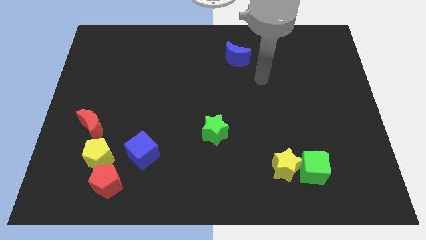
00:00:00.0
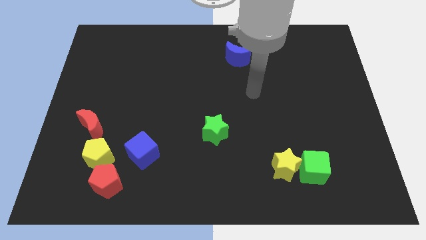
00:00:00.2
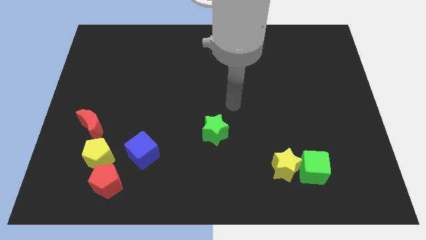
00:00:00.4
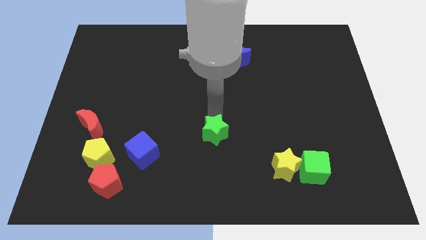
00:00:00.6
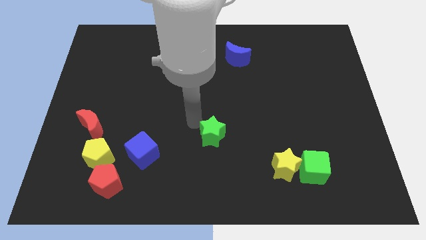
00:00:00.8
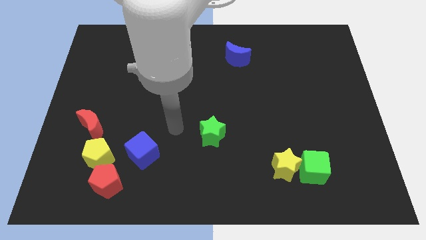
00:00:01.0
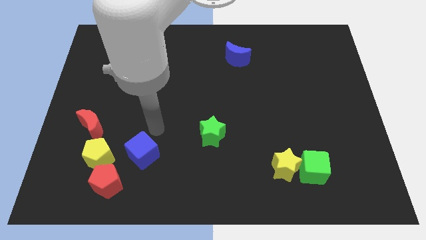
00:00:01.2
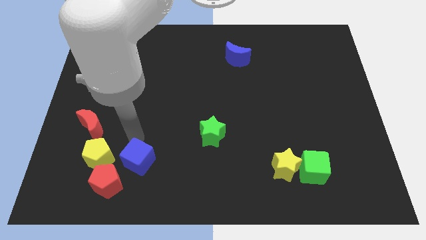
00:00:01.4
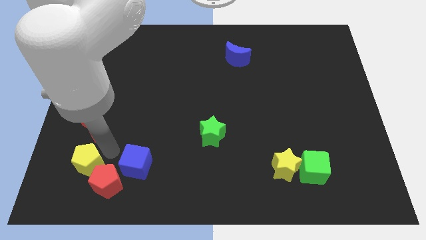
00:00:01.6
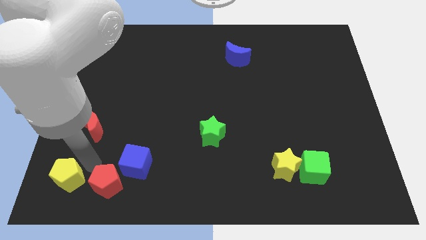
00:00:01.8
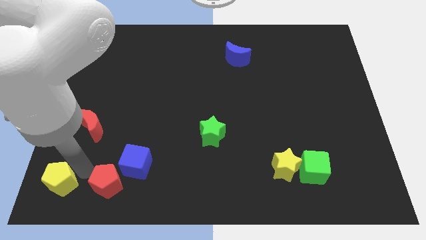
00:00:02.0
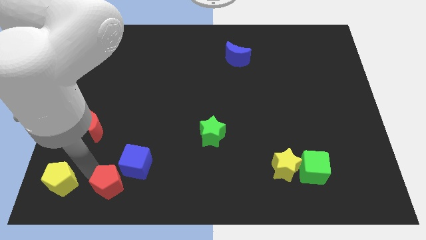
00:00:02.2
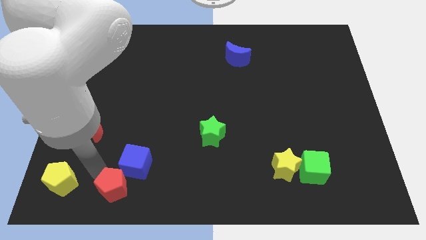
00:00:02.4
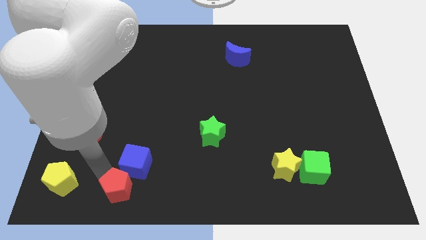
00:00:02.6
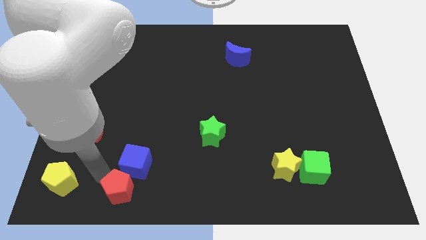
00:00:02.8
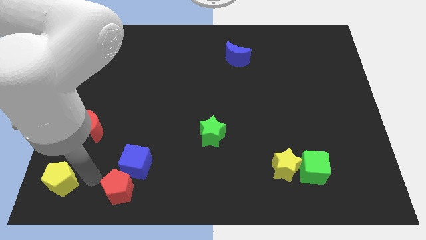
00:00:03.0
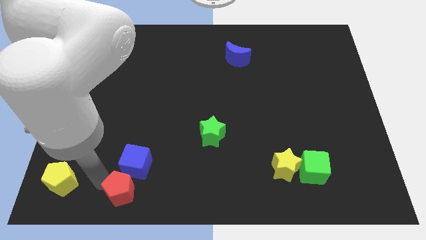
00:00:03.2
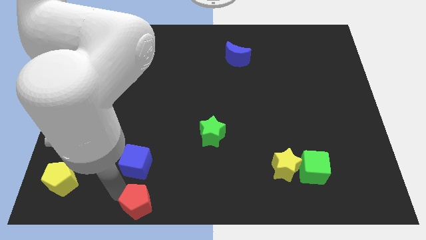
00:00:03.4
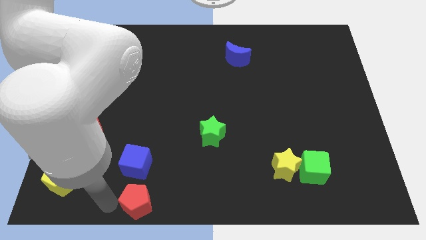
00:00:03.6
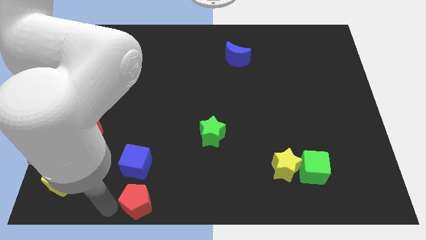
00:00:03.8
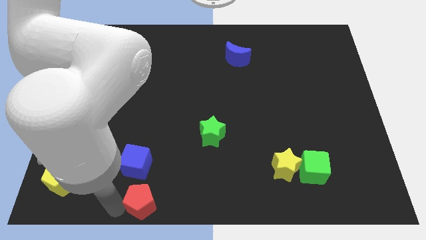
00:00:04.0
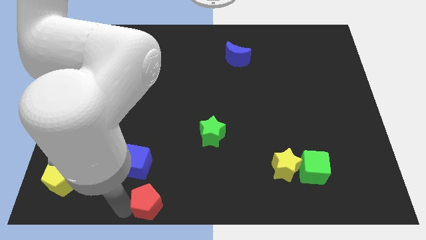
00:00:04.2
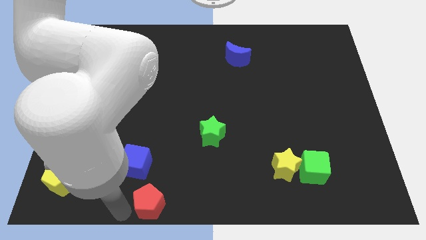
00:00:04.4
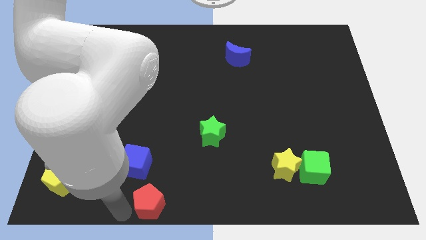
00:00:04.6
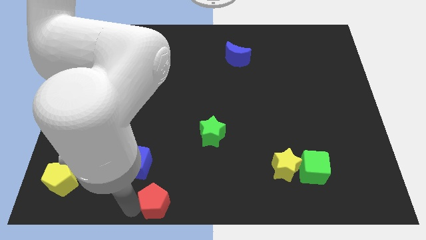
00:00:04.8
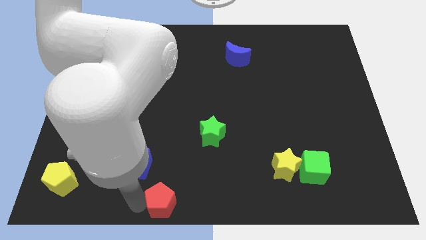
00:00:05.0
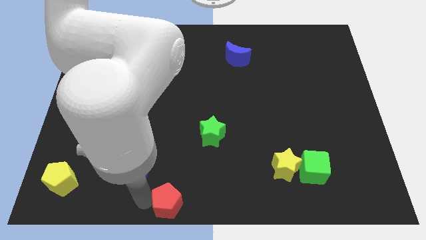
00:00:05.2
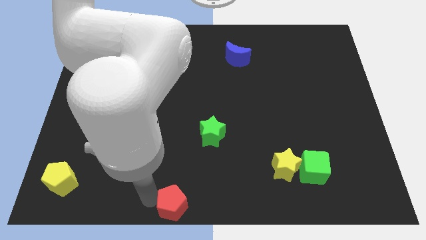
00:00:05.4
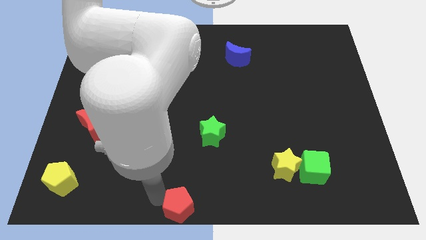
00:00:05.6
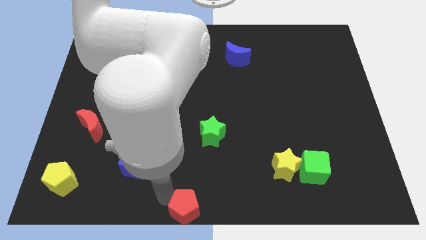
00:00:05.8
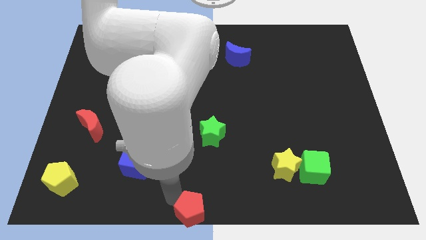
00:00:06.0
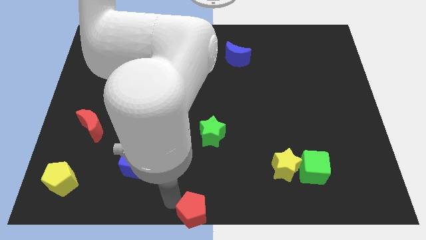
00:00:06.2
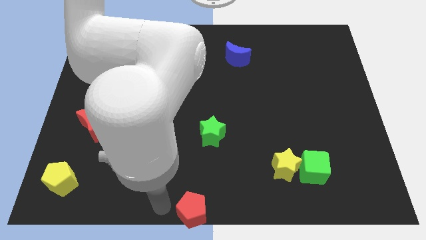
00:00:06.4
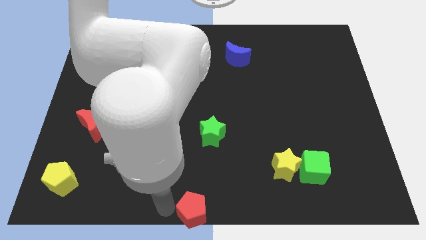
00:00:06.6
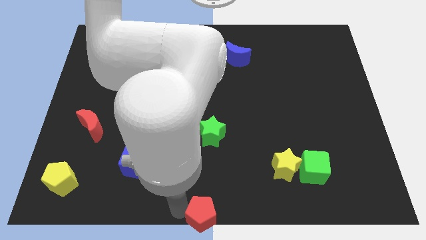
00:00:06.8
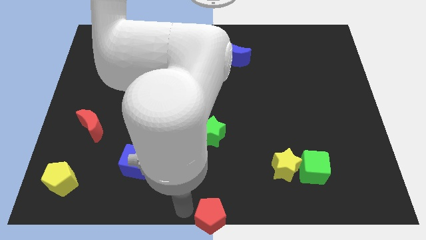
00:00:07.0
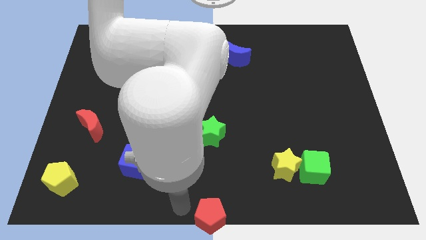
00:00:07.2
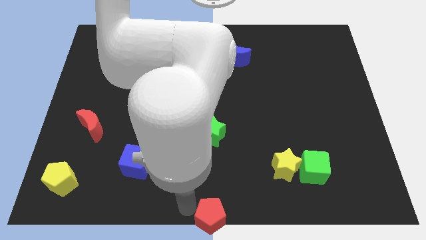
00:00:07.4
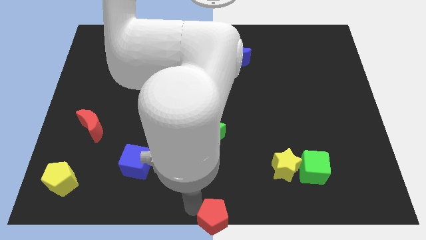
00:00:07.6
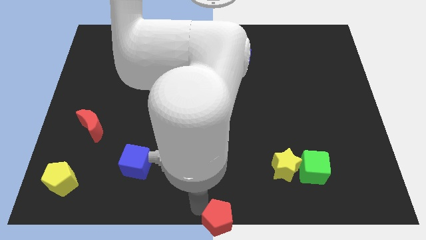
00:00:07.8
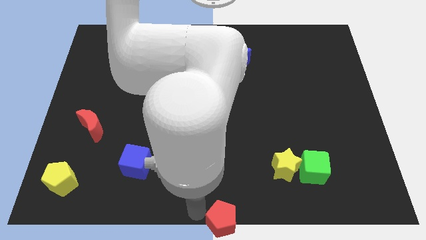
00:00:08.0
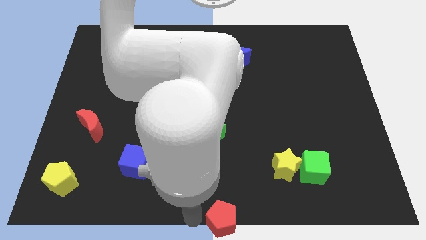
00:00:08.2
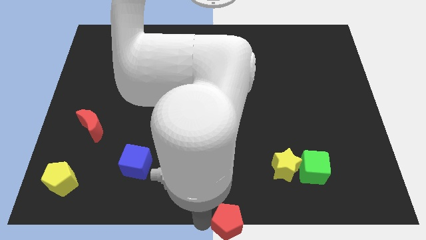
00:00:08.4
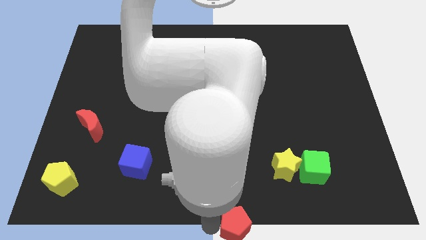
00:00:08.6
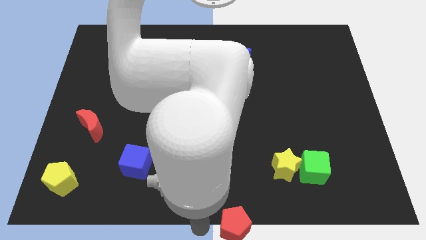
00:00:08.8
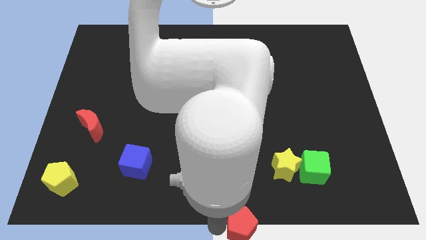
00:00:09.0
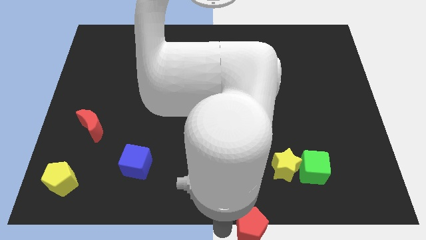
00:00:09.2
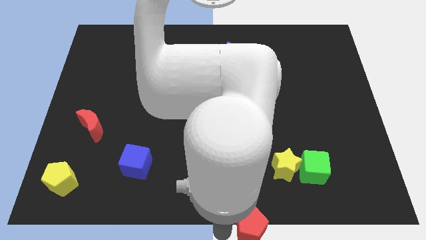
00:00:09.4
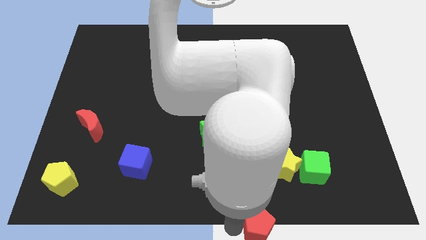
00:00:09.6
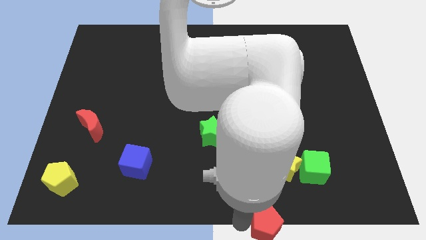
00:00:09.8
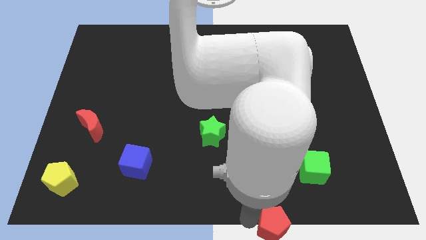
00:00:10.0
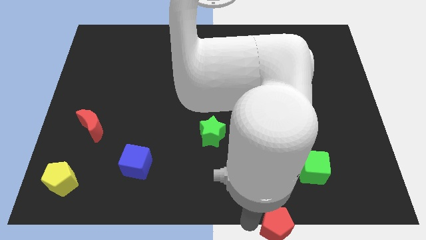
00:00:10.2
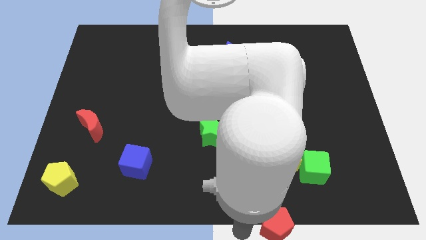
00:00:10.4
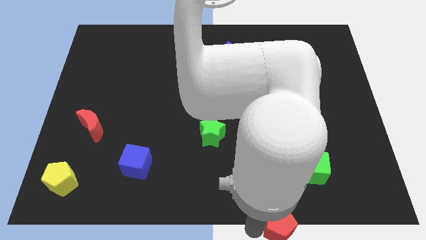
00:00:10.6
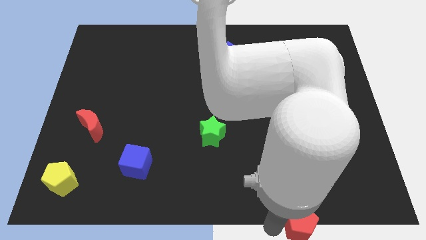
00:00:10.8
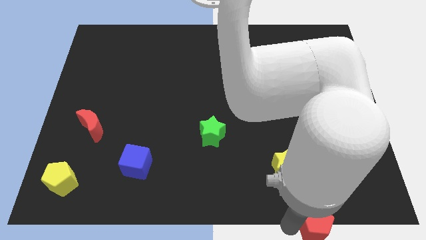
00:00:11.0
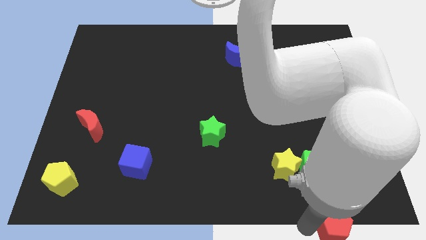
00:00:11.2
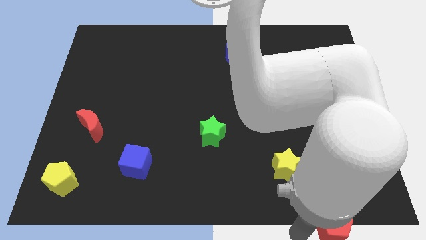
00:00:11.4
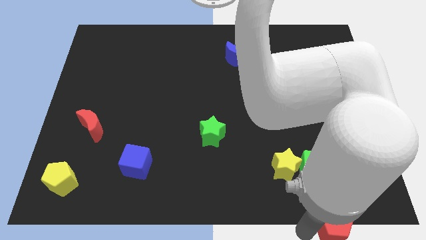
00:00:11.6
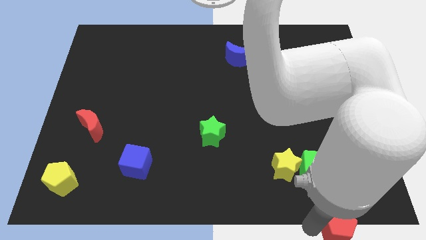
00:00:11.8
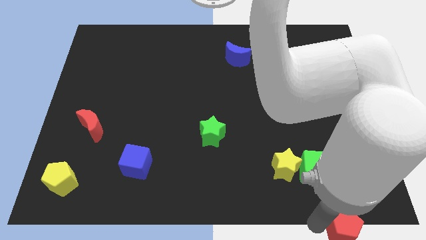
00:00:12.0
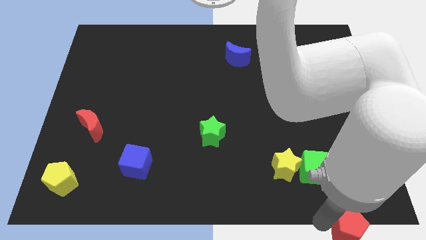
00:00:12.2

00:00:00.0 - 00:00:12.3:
move the red pentagon to the bottom right

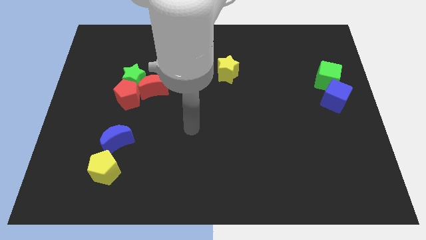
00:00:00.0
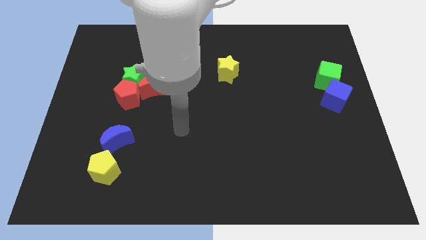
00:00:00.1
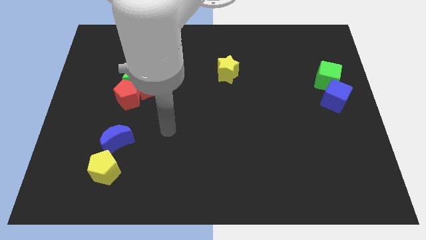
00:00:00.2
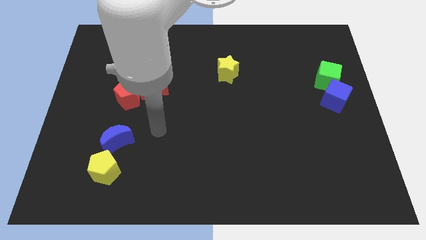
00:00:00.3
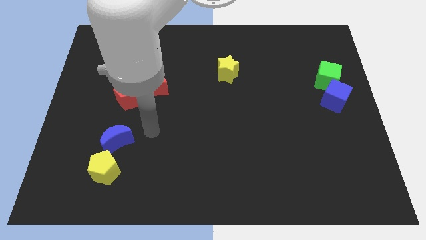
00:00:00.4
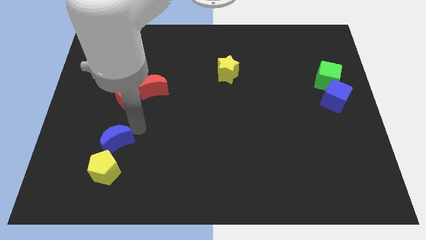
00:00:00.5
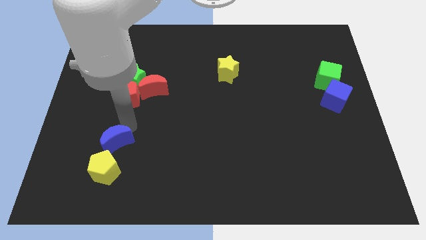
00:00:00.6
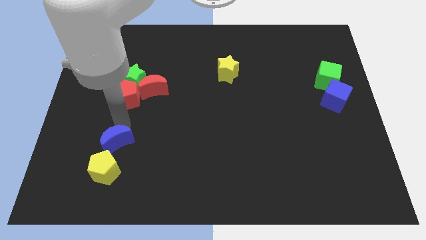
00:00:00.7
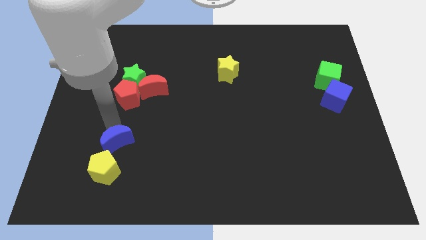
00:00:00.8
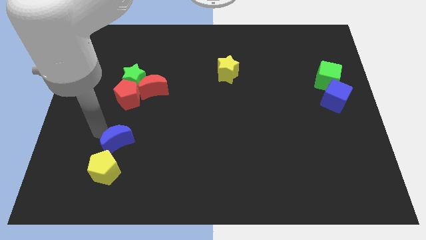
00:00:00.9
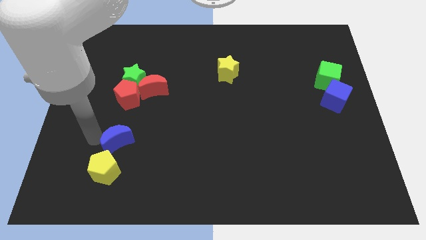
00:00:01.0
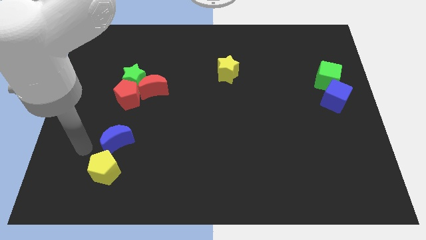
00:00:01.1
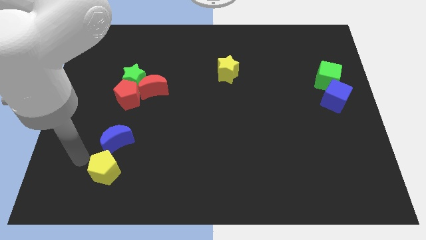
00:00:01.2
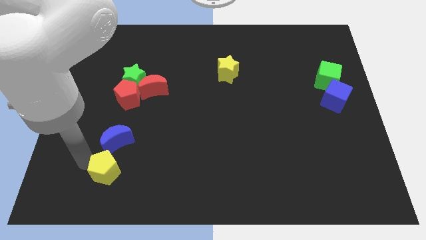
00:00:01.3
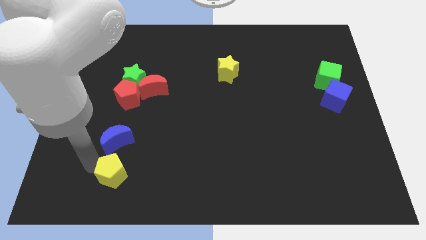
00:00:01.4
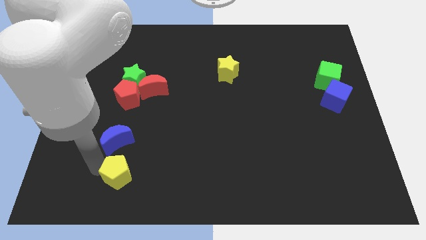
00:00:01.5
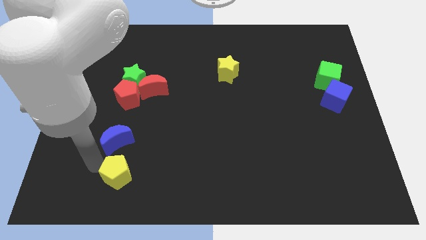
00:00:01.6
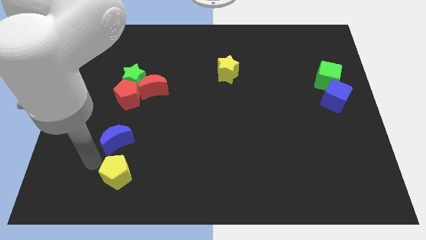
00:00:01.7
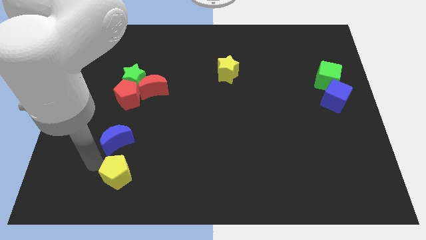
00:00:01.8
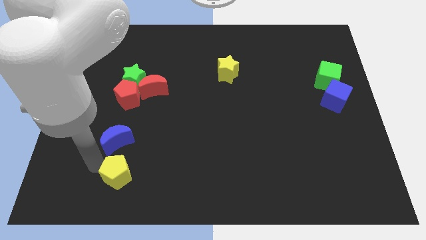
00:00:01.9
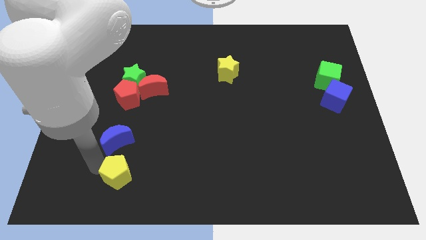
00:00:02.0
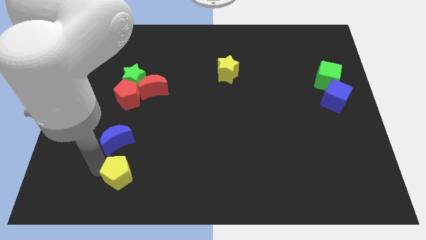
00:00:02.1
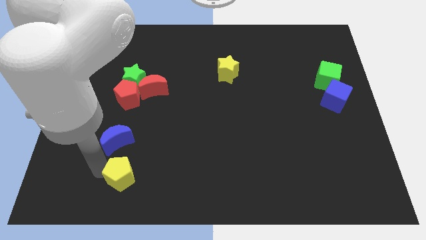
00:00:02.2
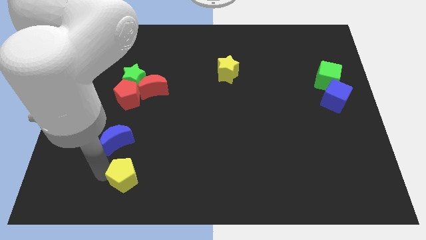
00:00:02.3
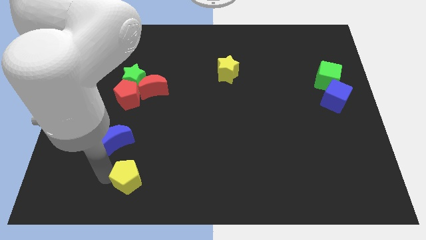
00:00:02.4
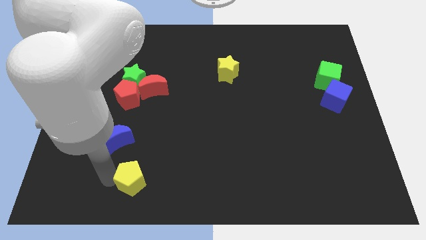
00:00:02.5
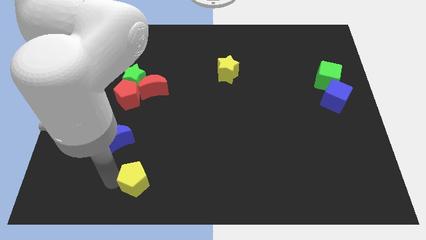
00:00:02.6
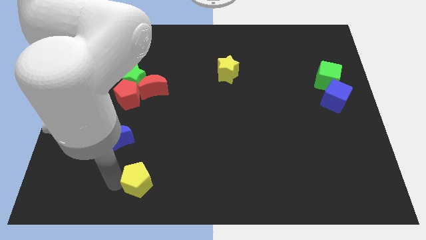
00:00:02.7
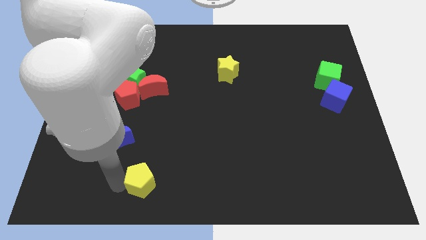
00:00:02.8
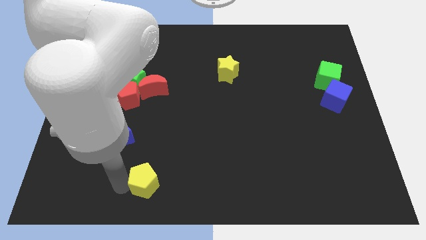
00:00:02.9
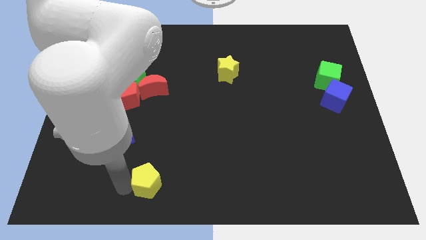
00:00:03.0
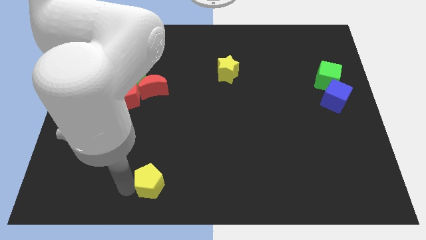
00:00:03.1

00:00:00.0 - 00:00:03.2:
slide the yellow pentagon to the bottom
